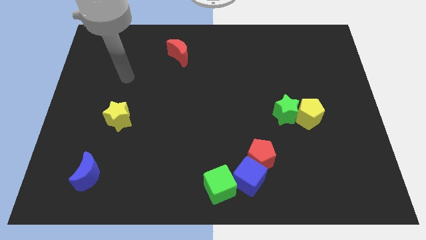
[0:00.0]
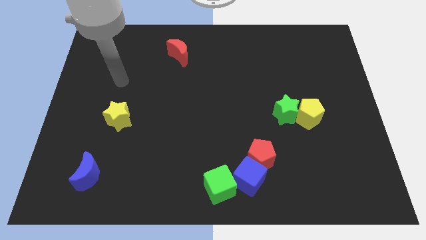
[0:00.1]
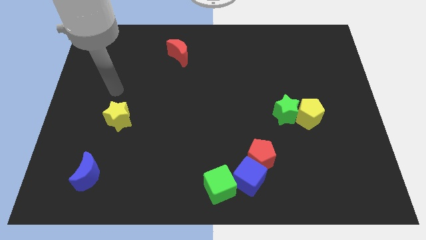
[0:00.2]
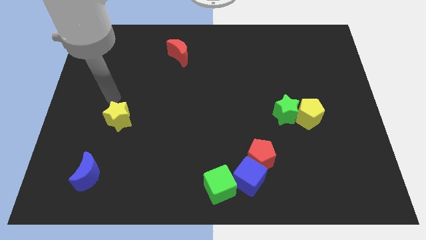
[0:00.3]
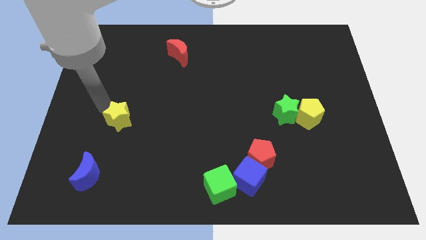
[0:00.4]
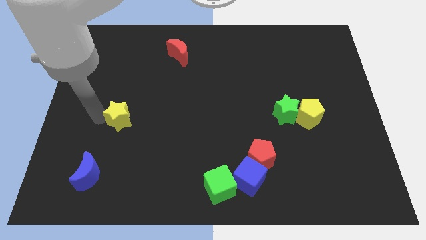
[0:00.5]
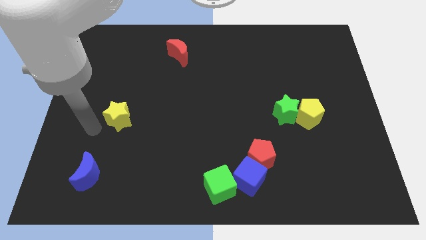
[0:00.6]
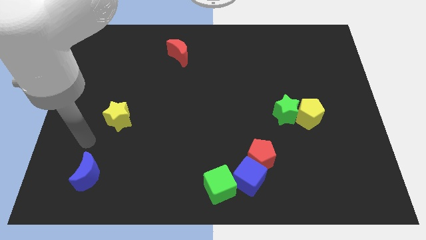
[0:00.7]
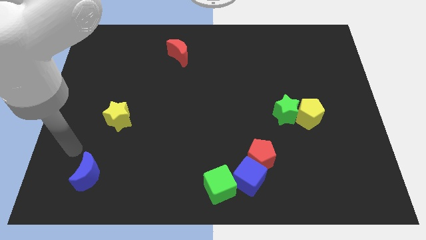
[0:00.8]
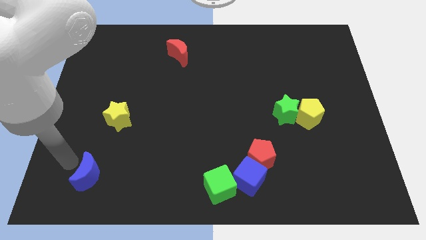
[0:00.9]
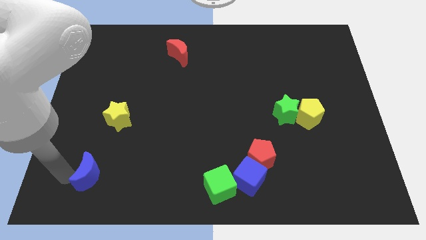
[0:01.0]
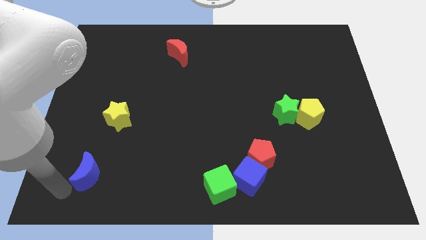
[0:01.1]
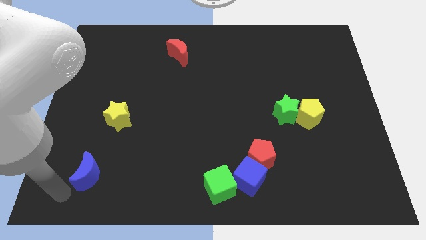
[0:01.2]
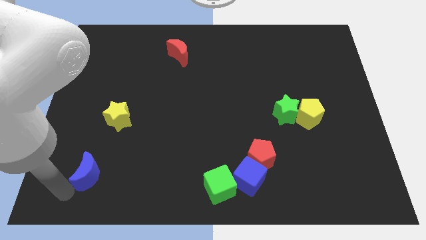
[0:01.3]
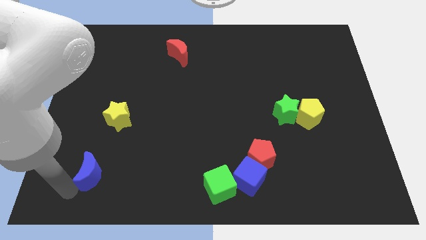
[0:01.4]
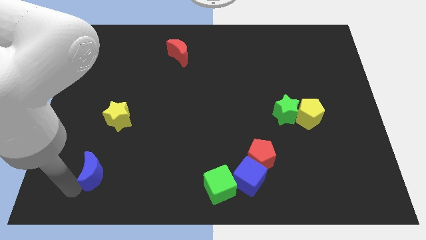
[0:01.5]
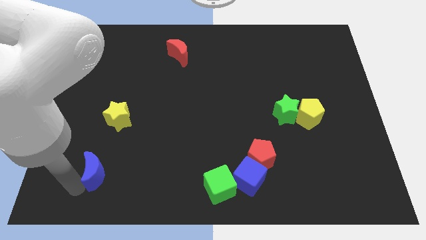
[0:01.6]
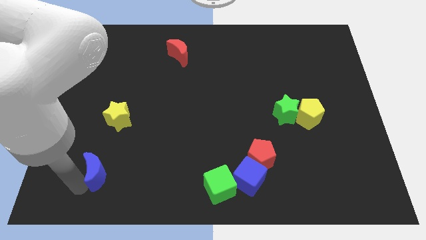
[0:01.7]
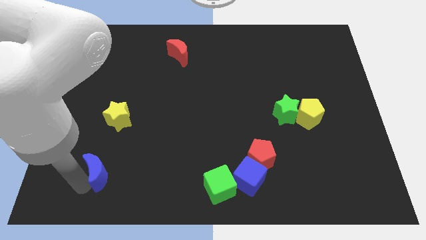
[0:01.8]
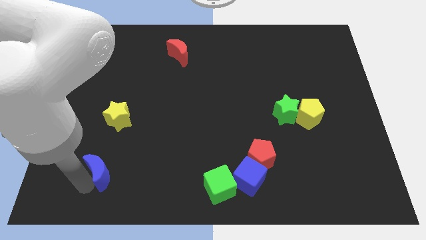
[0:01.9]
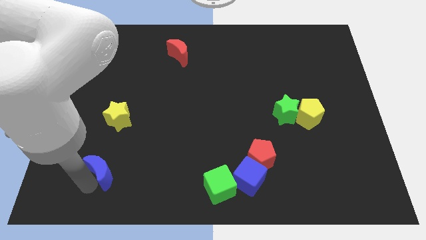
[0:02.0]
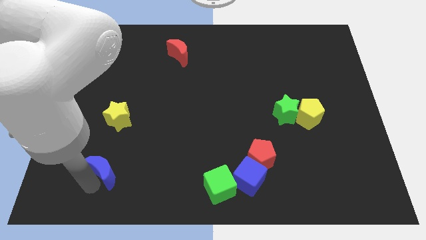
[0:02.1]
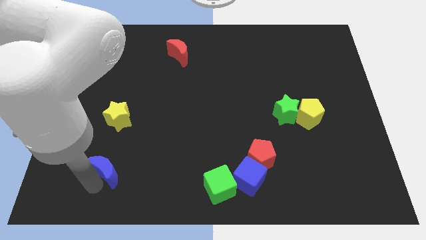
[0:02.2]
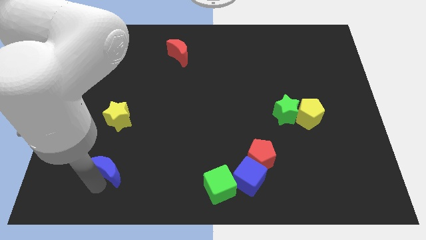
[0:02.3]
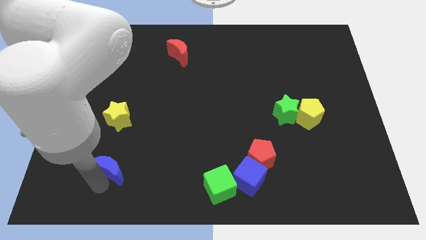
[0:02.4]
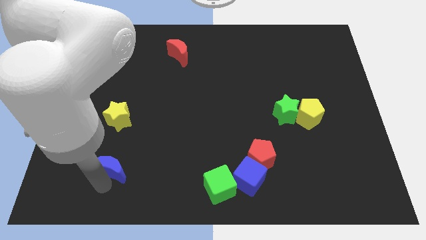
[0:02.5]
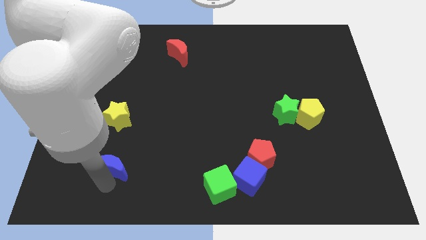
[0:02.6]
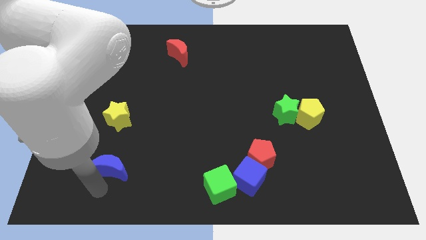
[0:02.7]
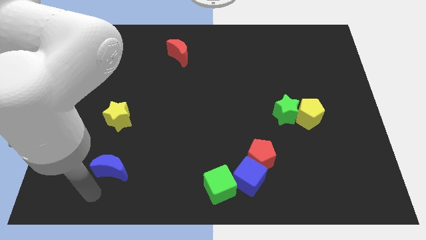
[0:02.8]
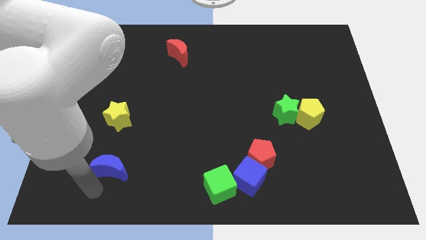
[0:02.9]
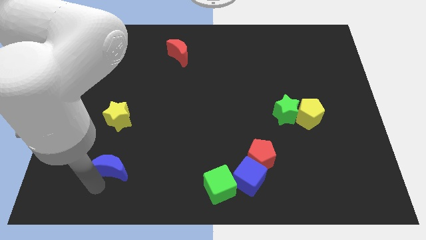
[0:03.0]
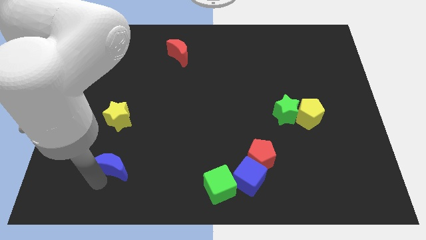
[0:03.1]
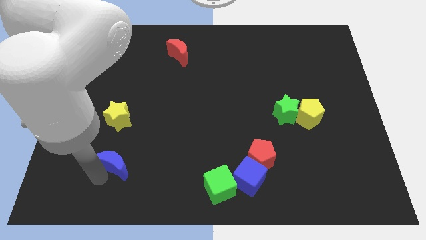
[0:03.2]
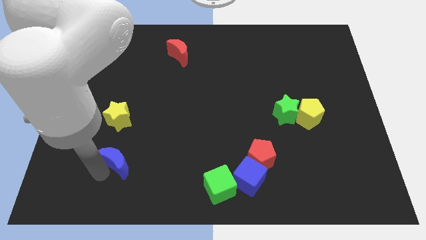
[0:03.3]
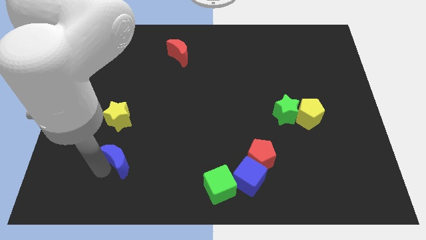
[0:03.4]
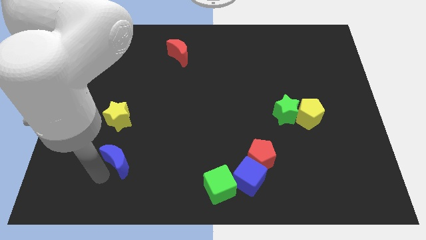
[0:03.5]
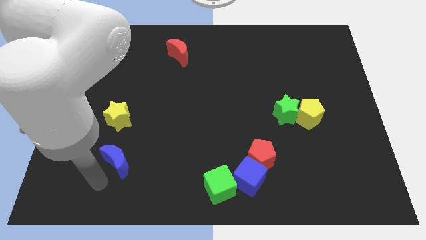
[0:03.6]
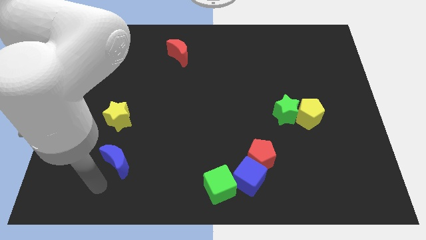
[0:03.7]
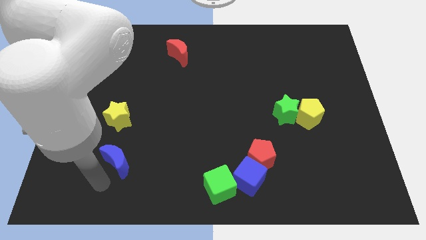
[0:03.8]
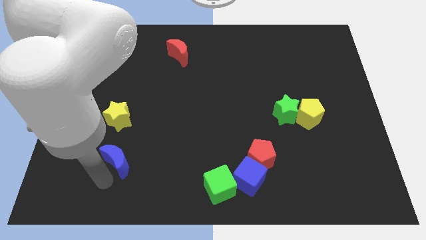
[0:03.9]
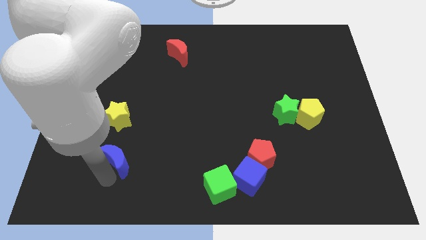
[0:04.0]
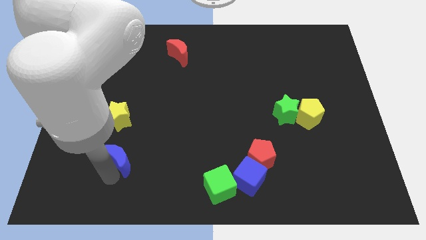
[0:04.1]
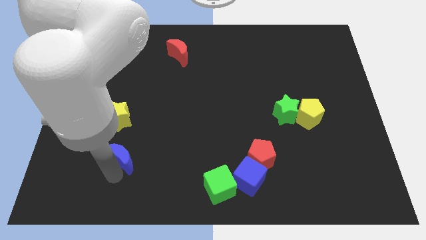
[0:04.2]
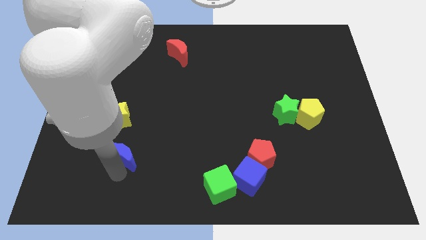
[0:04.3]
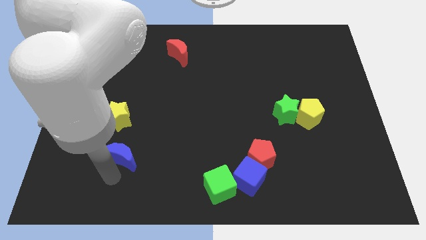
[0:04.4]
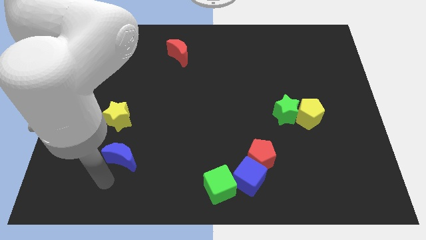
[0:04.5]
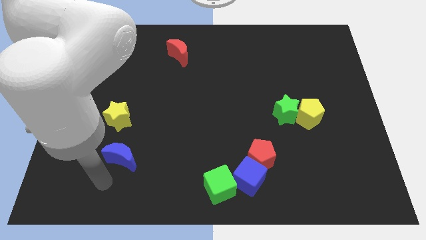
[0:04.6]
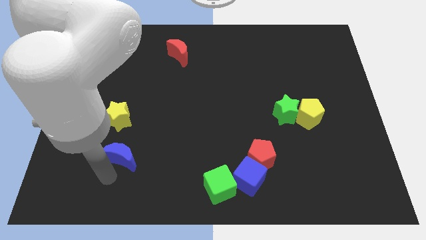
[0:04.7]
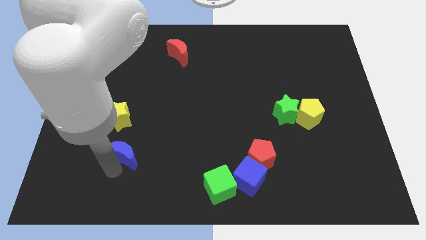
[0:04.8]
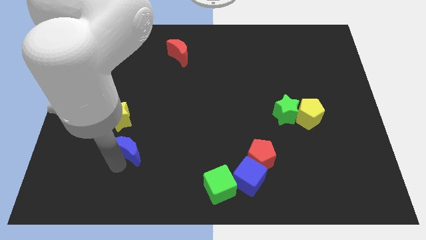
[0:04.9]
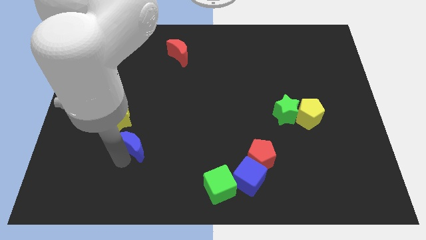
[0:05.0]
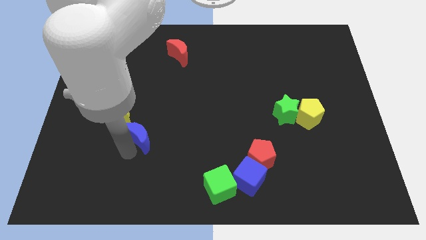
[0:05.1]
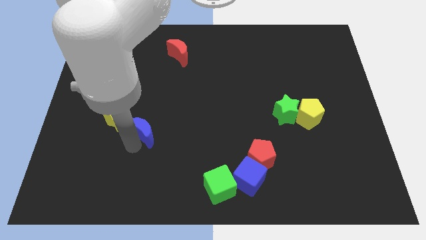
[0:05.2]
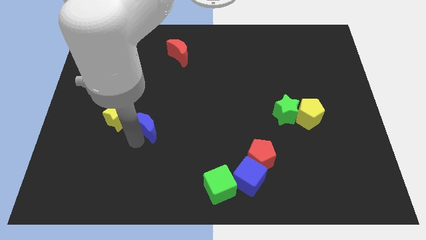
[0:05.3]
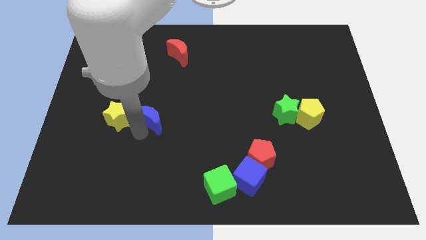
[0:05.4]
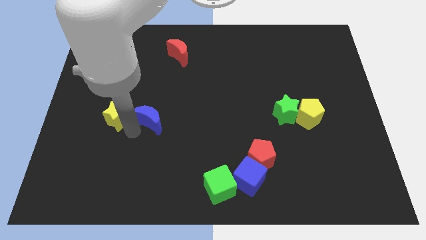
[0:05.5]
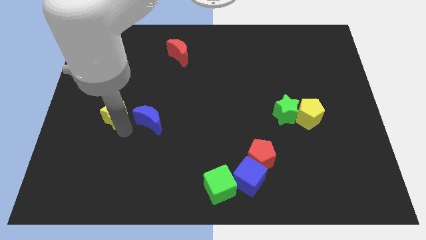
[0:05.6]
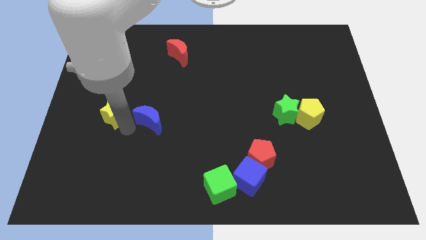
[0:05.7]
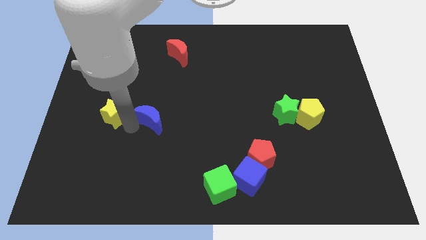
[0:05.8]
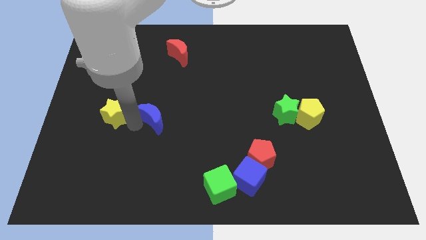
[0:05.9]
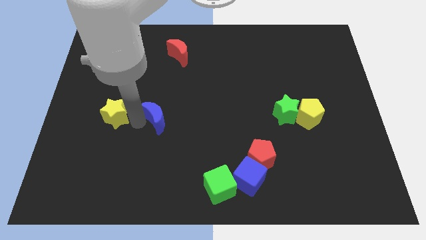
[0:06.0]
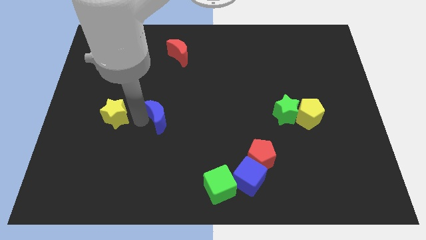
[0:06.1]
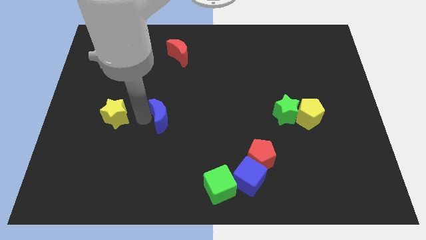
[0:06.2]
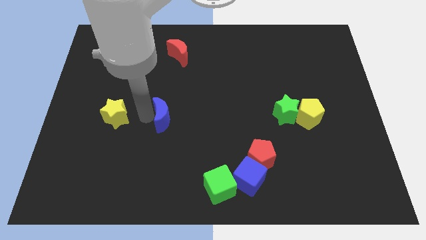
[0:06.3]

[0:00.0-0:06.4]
slide the blue moon to the middle
